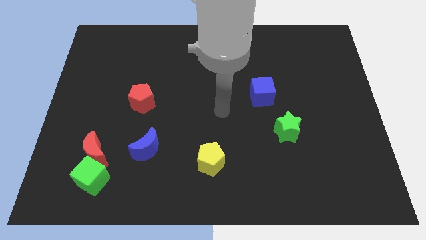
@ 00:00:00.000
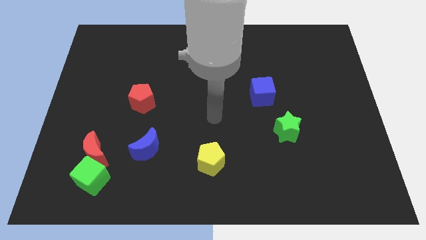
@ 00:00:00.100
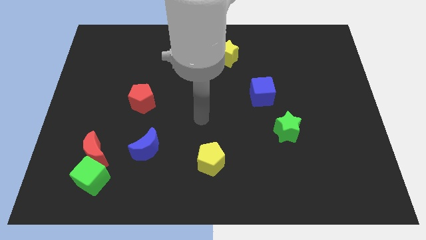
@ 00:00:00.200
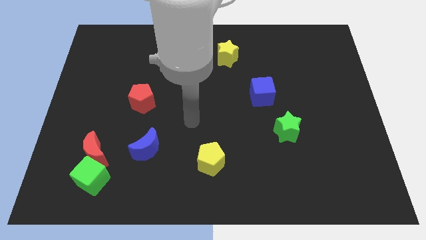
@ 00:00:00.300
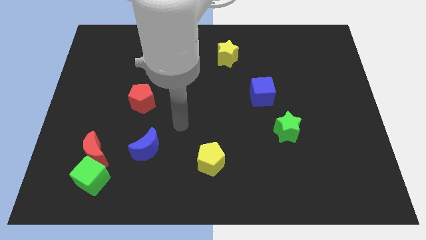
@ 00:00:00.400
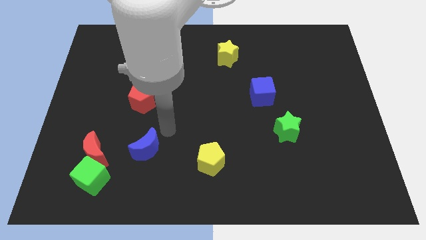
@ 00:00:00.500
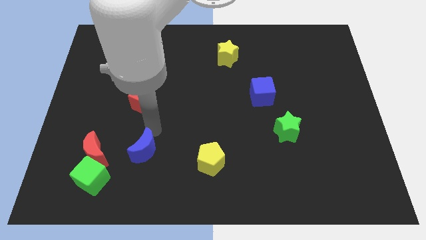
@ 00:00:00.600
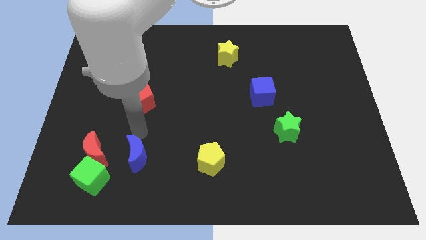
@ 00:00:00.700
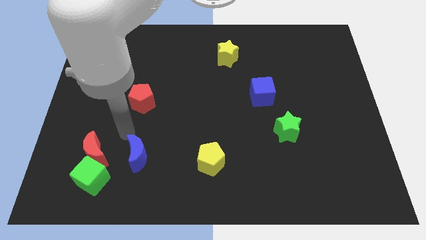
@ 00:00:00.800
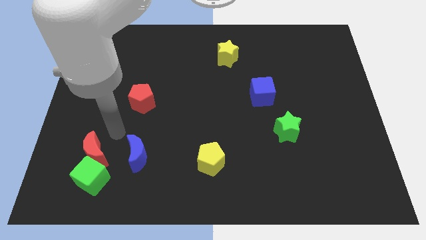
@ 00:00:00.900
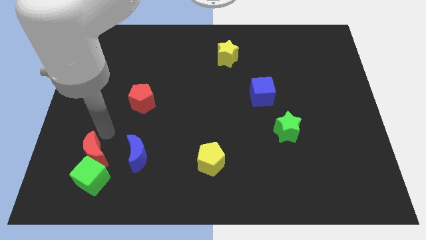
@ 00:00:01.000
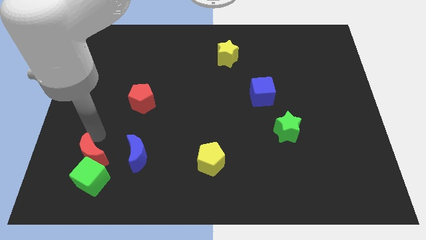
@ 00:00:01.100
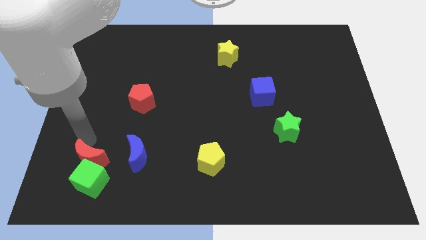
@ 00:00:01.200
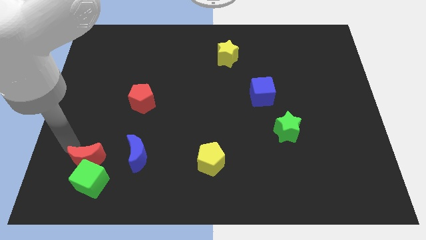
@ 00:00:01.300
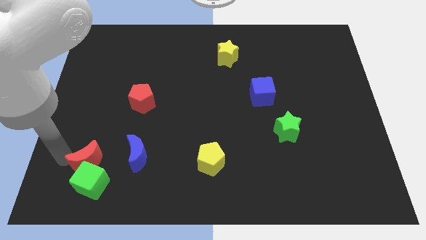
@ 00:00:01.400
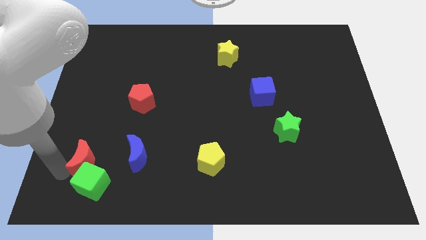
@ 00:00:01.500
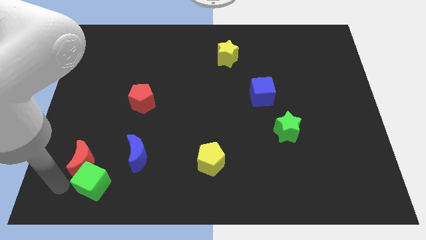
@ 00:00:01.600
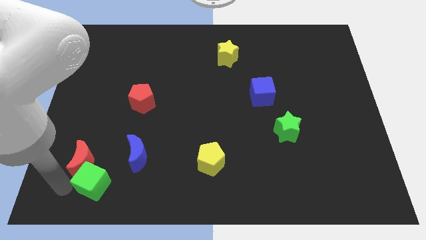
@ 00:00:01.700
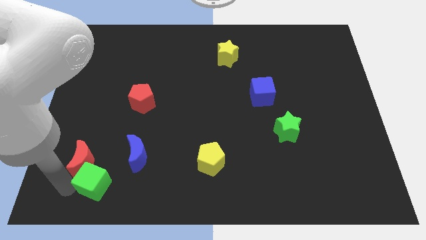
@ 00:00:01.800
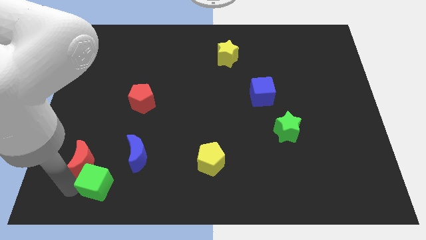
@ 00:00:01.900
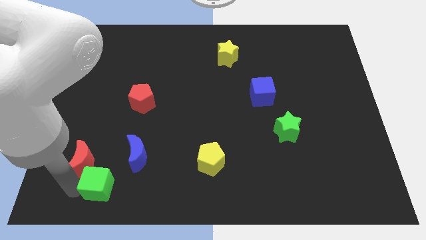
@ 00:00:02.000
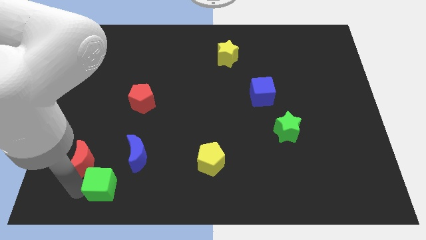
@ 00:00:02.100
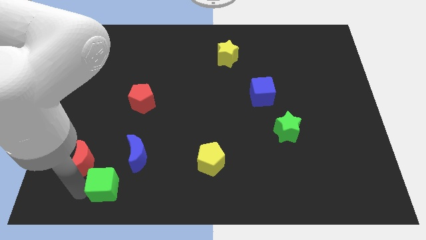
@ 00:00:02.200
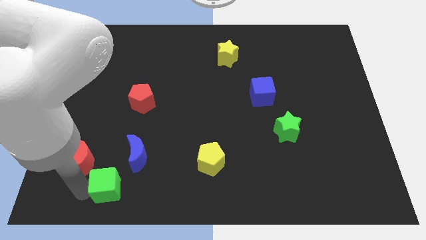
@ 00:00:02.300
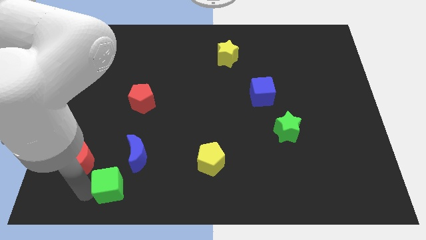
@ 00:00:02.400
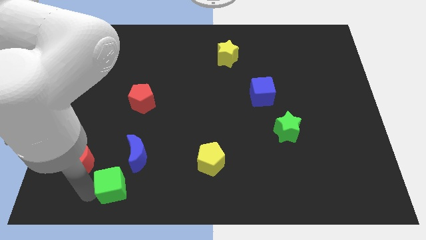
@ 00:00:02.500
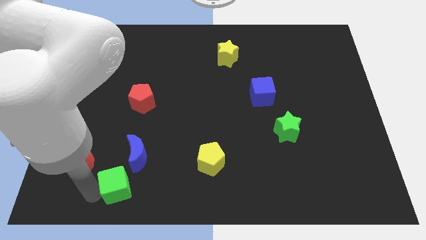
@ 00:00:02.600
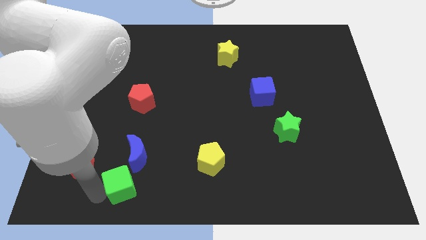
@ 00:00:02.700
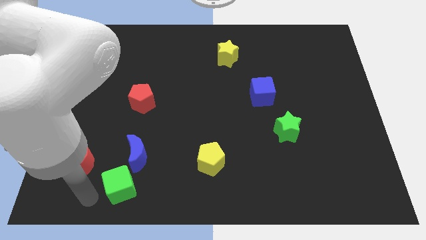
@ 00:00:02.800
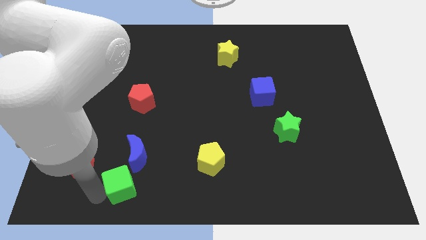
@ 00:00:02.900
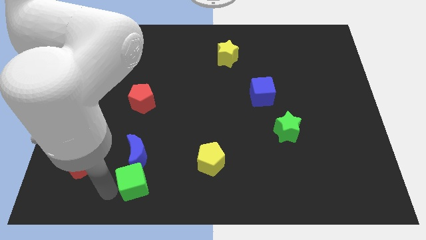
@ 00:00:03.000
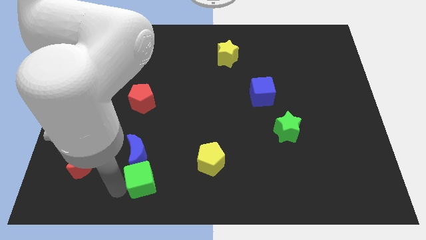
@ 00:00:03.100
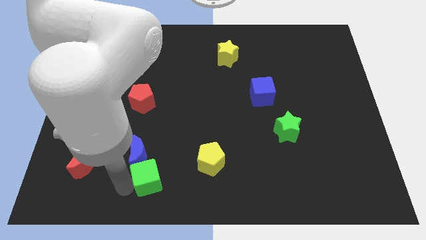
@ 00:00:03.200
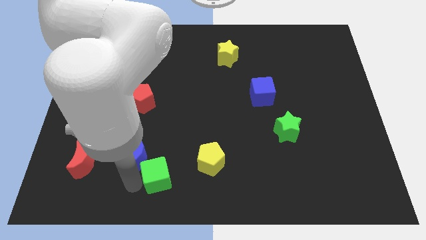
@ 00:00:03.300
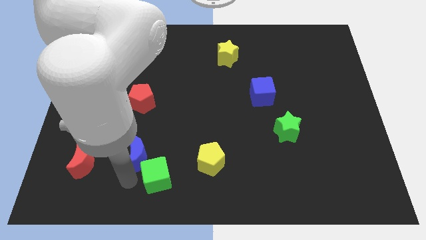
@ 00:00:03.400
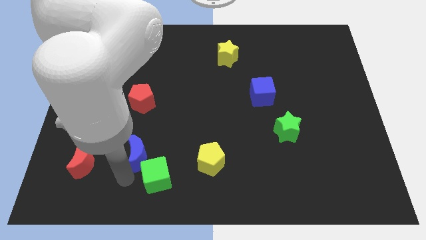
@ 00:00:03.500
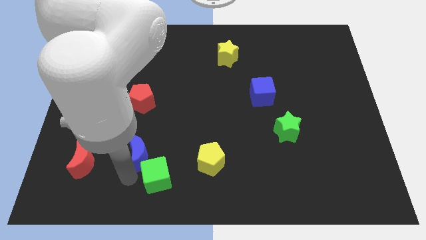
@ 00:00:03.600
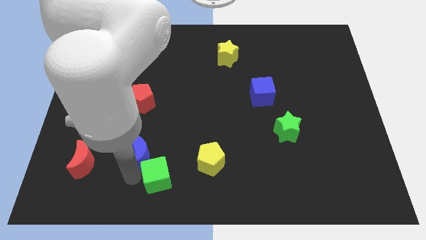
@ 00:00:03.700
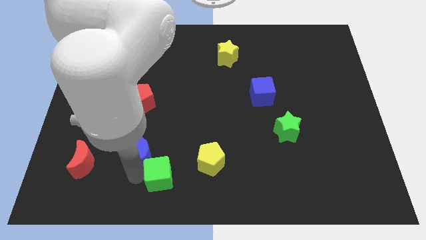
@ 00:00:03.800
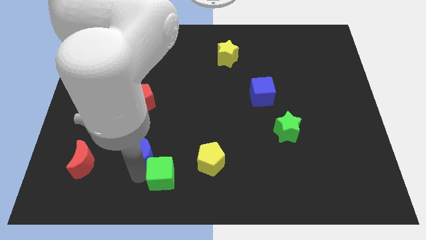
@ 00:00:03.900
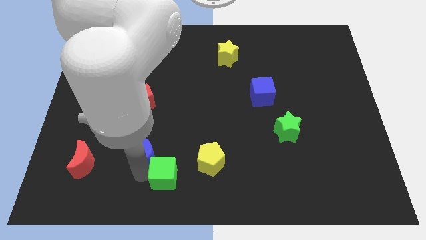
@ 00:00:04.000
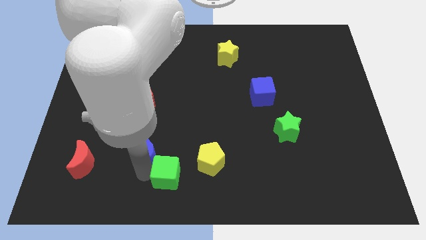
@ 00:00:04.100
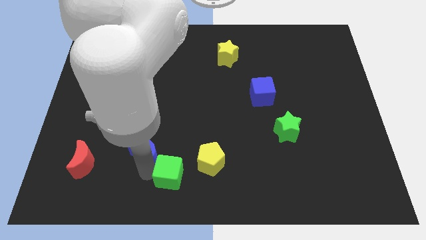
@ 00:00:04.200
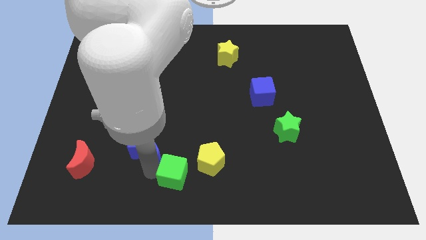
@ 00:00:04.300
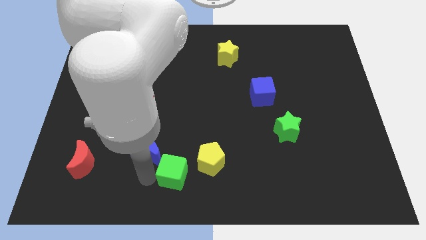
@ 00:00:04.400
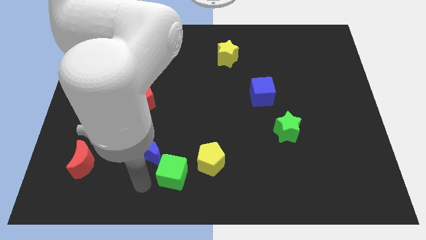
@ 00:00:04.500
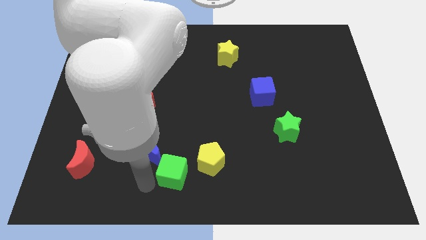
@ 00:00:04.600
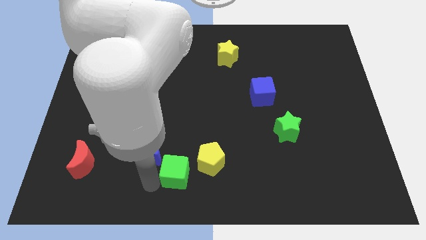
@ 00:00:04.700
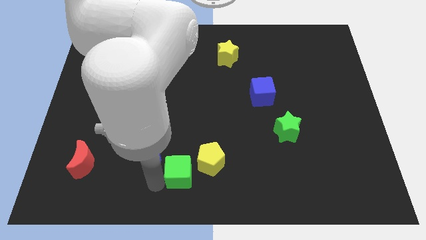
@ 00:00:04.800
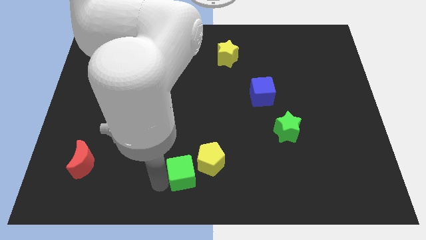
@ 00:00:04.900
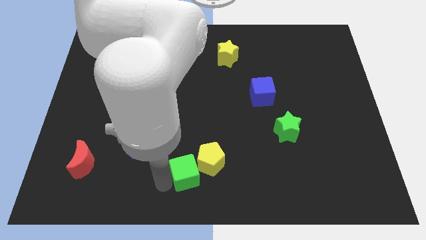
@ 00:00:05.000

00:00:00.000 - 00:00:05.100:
push the green cube next to the yellow pentagon

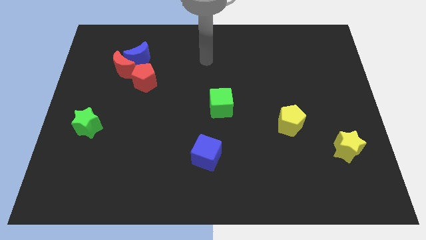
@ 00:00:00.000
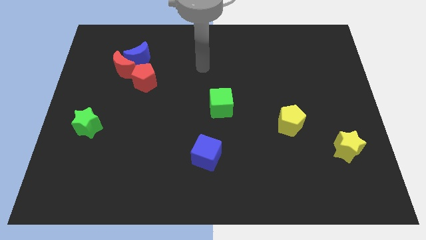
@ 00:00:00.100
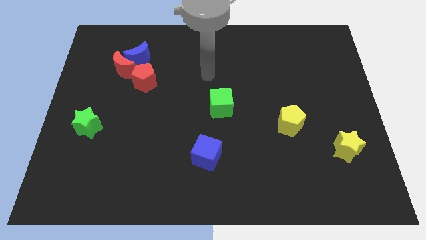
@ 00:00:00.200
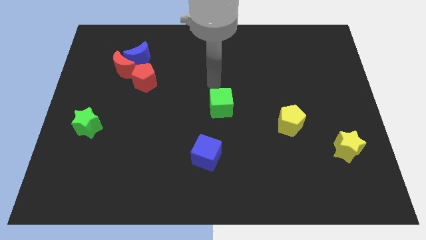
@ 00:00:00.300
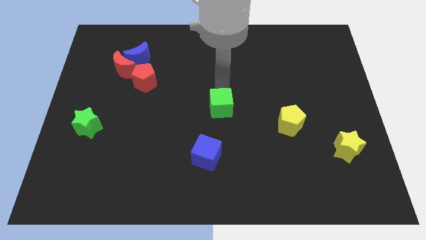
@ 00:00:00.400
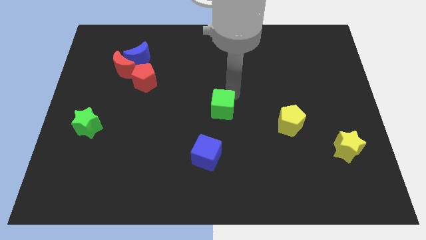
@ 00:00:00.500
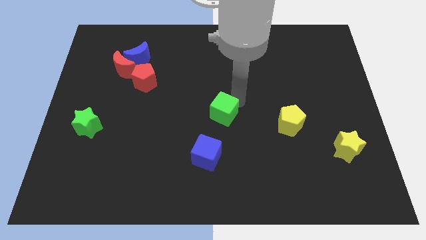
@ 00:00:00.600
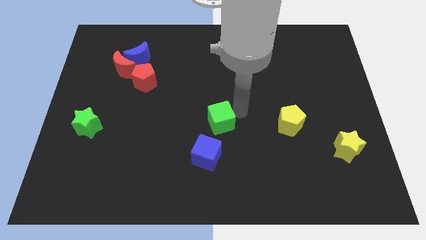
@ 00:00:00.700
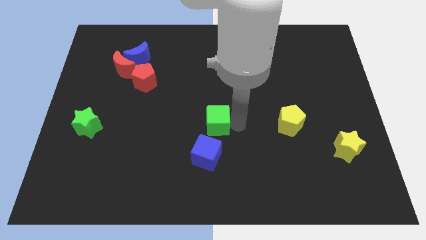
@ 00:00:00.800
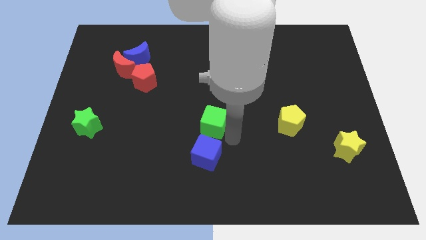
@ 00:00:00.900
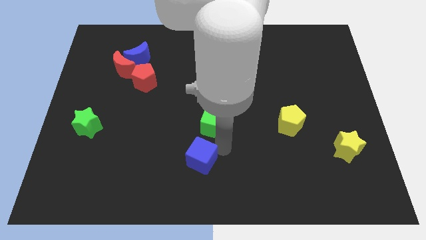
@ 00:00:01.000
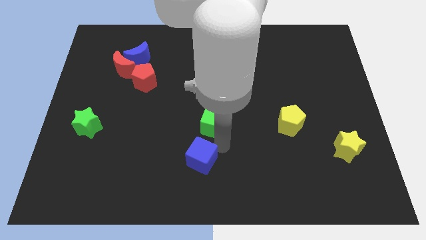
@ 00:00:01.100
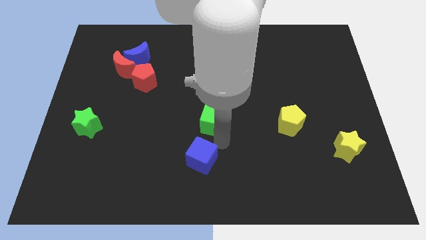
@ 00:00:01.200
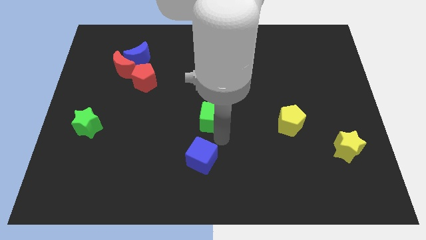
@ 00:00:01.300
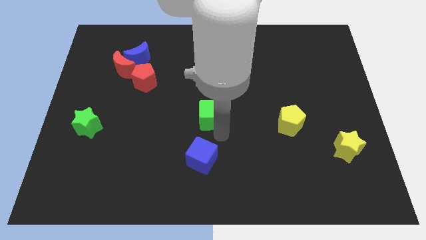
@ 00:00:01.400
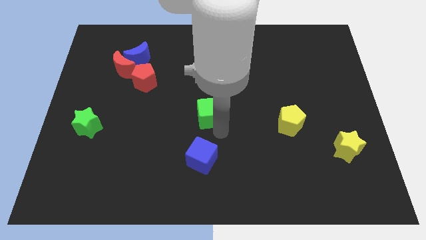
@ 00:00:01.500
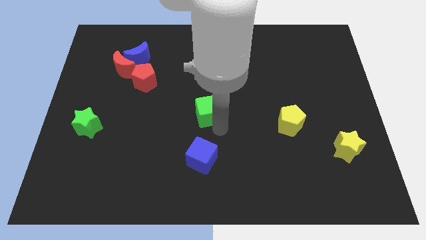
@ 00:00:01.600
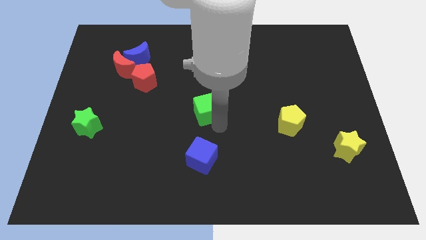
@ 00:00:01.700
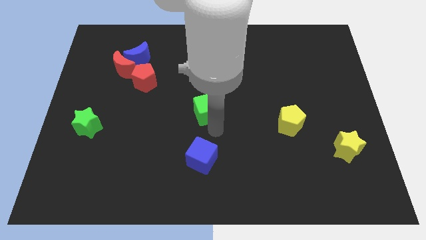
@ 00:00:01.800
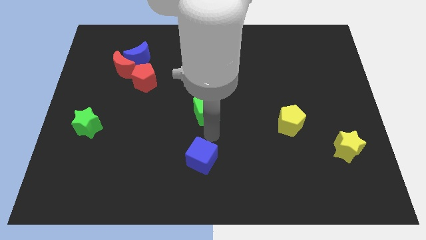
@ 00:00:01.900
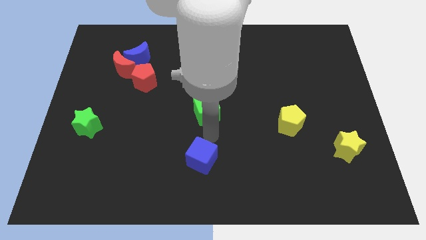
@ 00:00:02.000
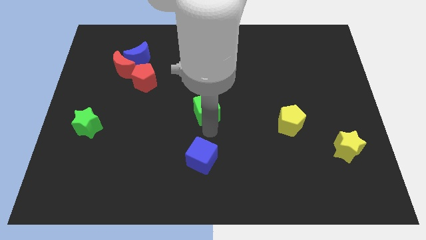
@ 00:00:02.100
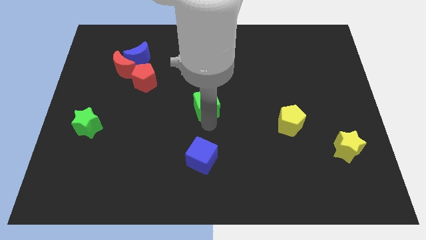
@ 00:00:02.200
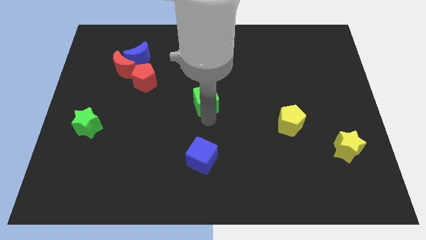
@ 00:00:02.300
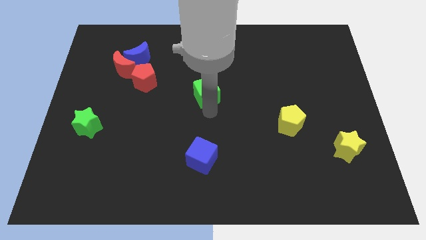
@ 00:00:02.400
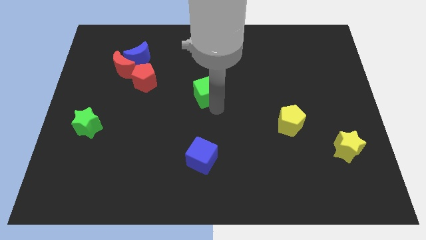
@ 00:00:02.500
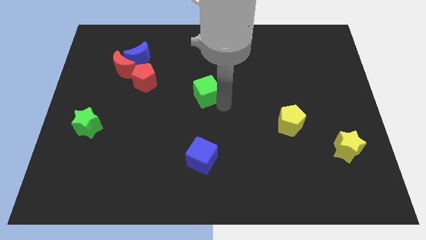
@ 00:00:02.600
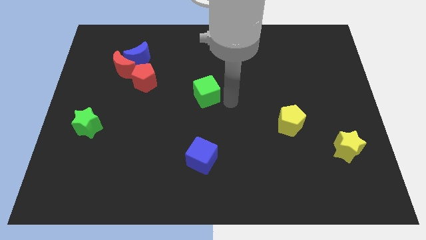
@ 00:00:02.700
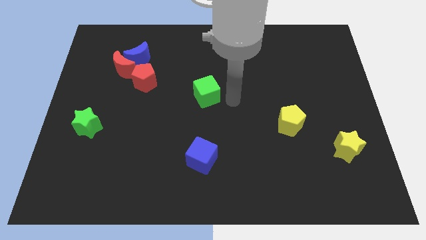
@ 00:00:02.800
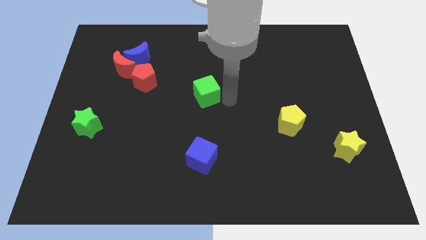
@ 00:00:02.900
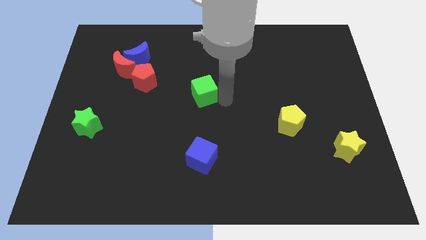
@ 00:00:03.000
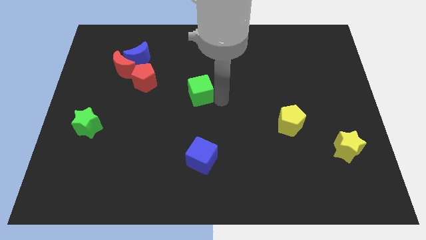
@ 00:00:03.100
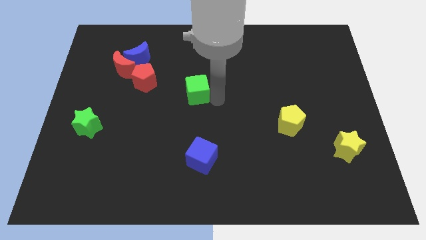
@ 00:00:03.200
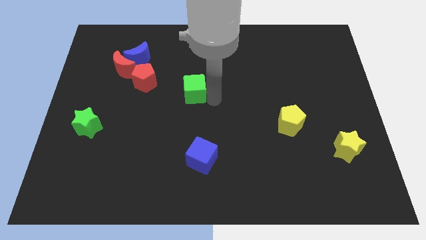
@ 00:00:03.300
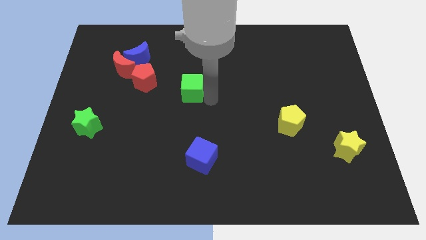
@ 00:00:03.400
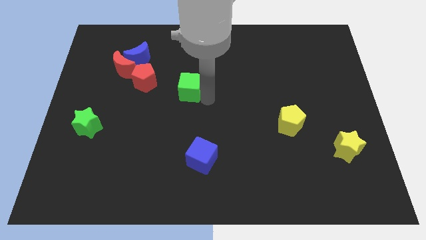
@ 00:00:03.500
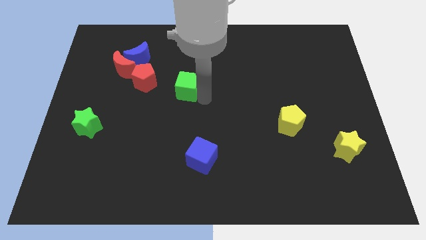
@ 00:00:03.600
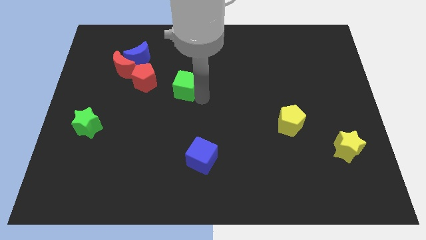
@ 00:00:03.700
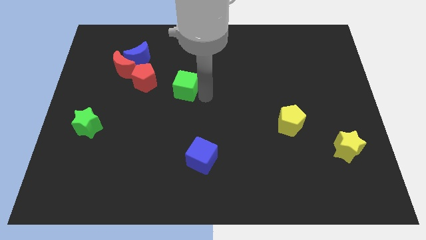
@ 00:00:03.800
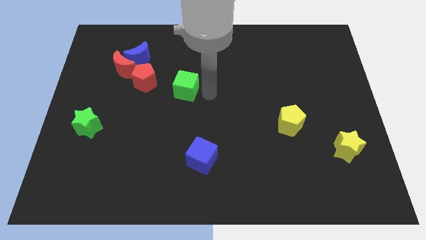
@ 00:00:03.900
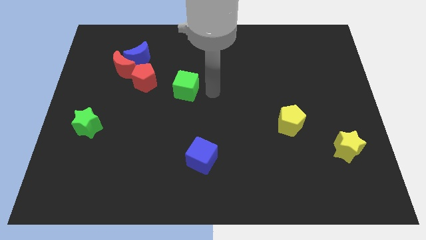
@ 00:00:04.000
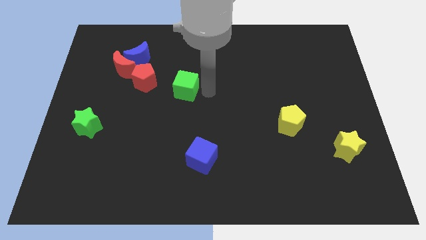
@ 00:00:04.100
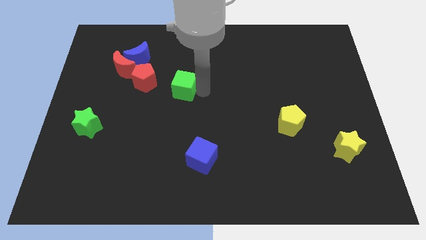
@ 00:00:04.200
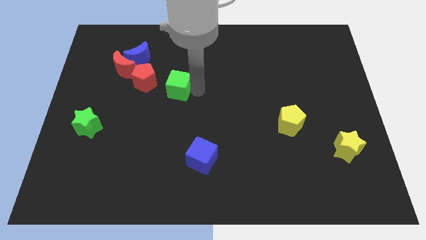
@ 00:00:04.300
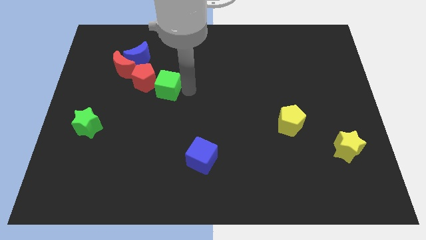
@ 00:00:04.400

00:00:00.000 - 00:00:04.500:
push the green cube to the red pentagon
